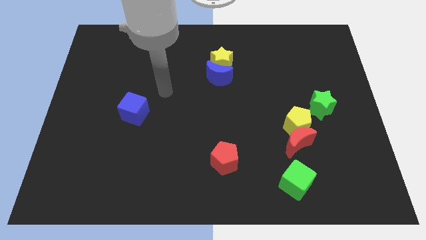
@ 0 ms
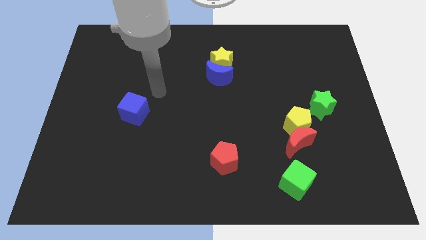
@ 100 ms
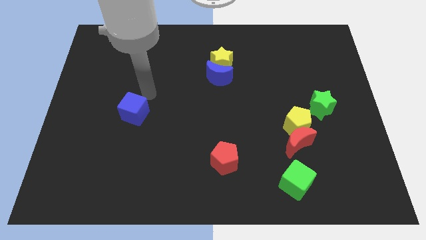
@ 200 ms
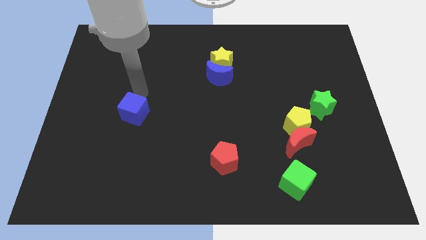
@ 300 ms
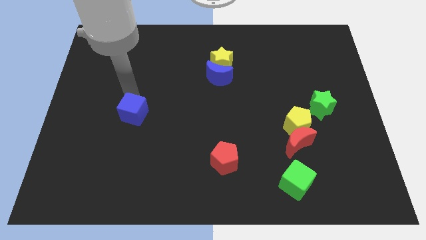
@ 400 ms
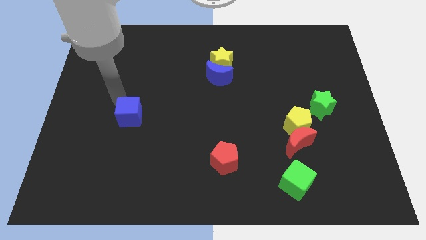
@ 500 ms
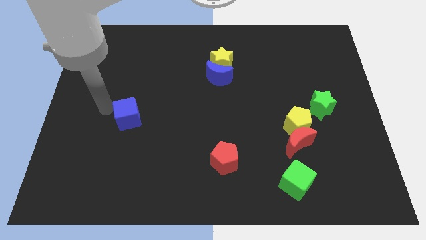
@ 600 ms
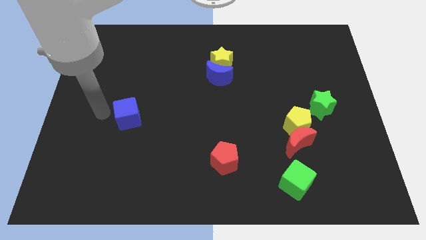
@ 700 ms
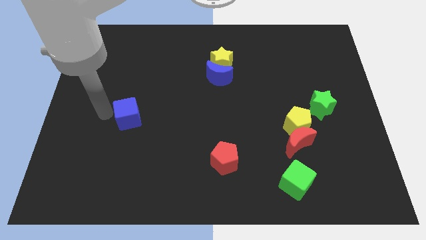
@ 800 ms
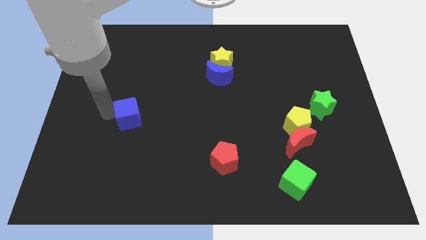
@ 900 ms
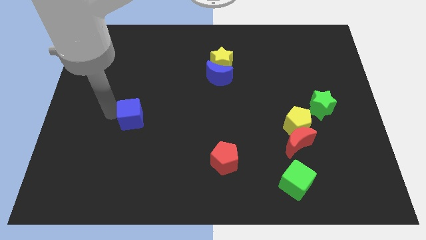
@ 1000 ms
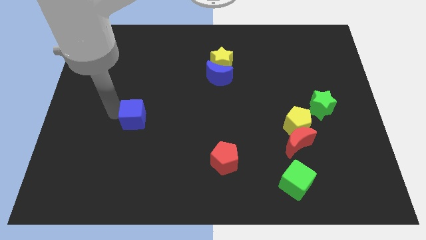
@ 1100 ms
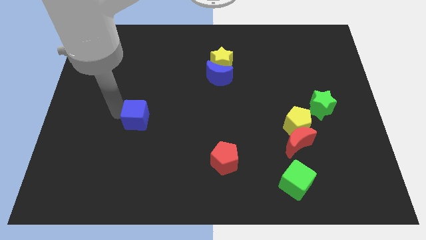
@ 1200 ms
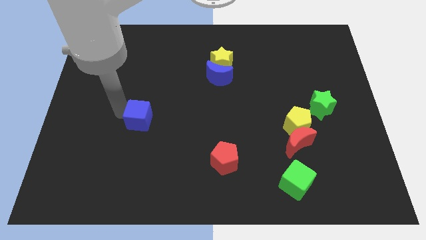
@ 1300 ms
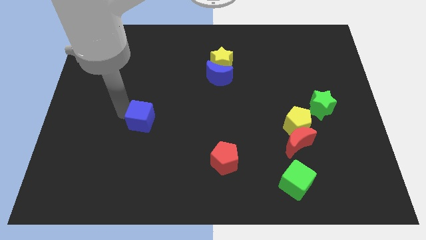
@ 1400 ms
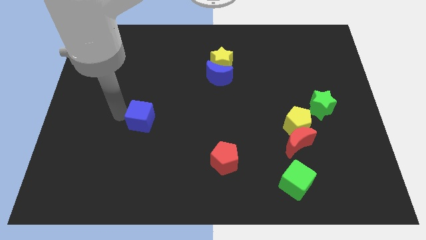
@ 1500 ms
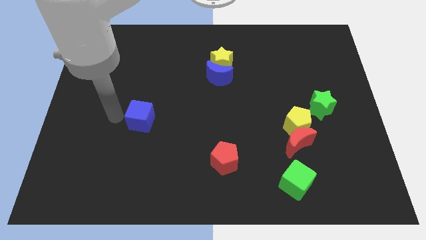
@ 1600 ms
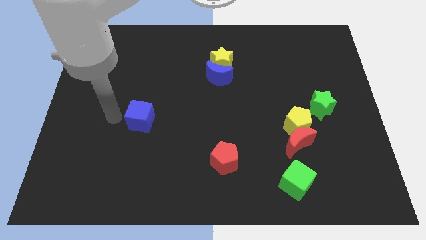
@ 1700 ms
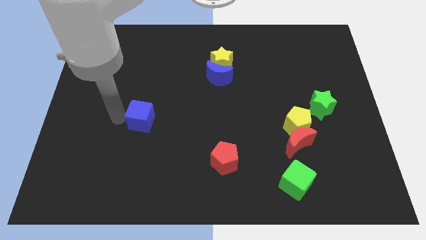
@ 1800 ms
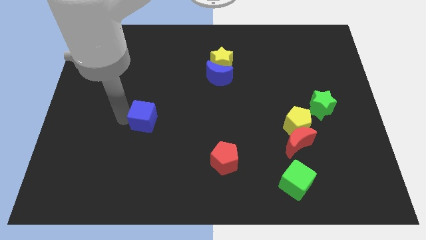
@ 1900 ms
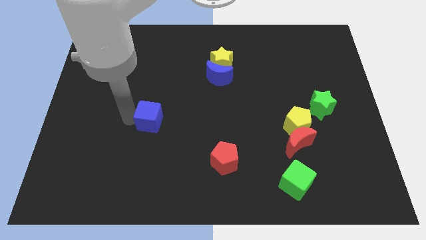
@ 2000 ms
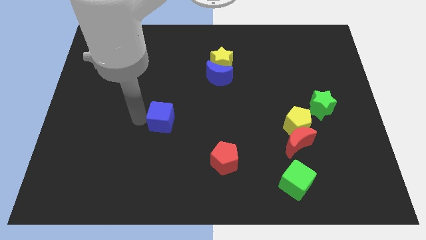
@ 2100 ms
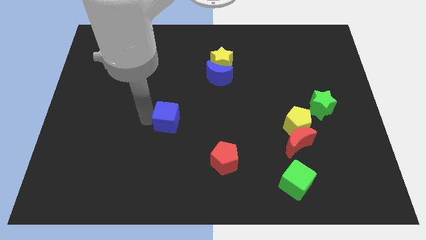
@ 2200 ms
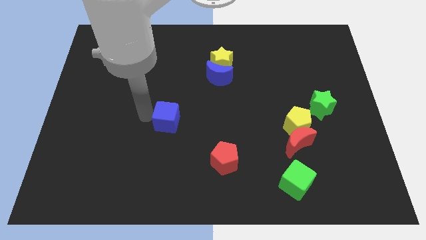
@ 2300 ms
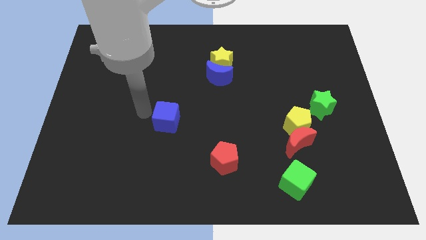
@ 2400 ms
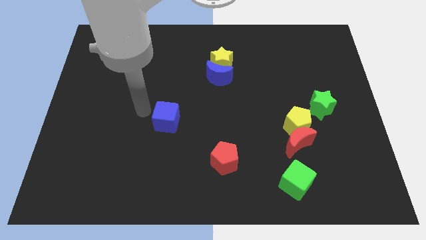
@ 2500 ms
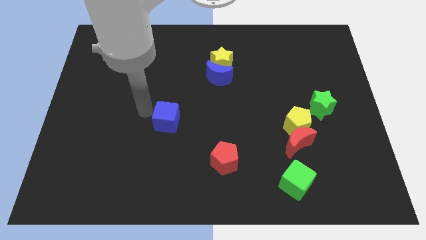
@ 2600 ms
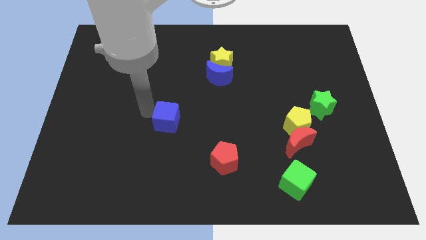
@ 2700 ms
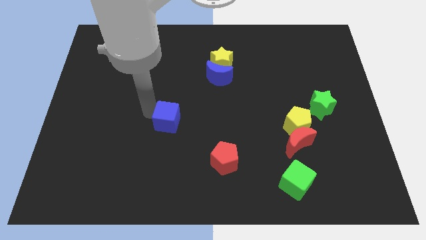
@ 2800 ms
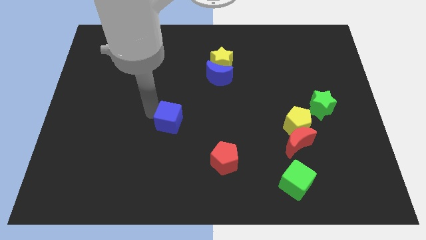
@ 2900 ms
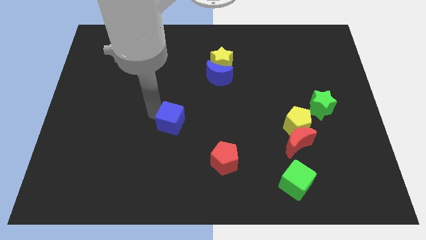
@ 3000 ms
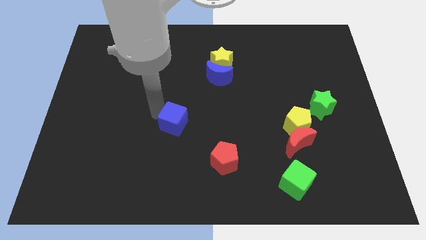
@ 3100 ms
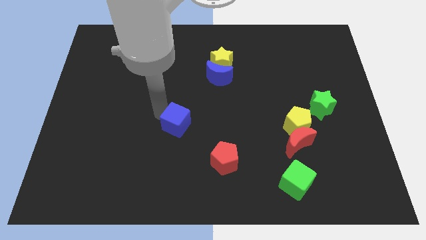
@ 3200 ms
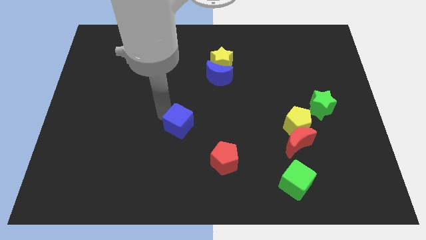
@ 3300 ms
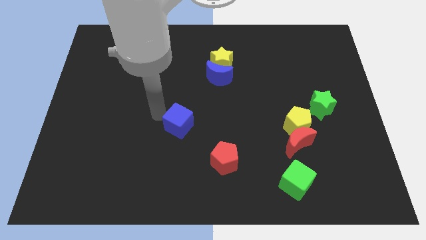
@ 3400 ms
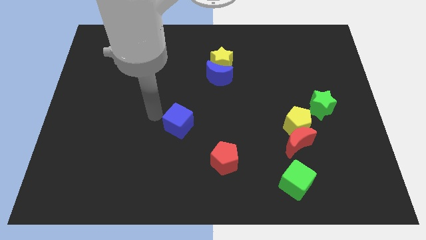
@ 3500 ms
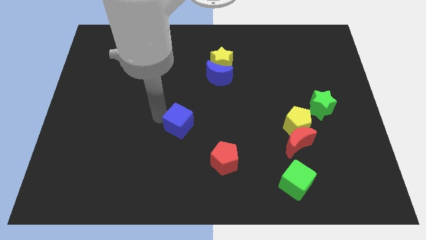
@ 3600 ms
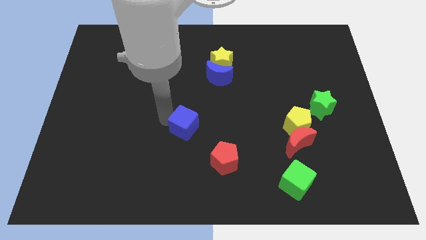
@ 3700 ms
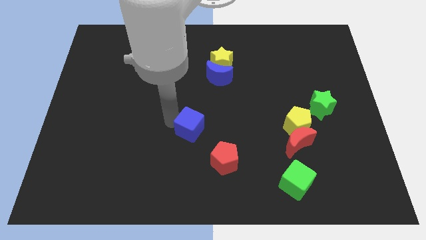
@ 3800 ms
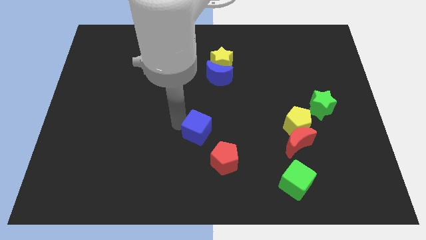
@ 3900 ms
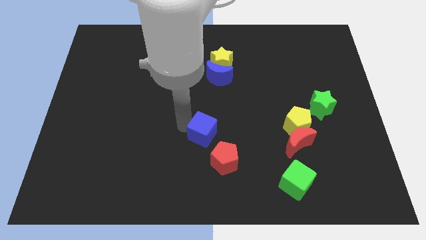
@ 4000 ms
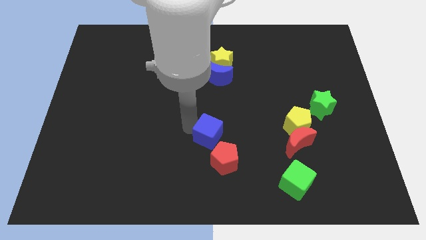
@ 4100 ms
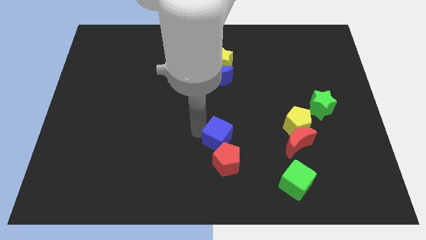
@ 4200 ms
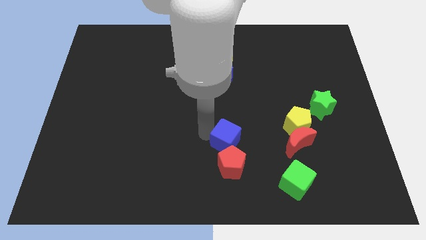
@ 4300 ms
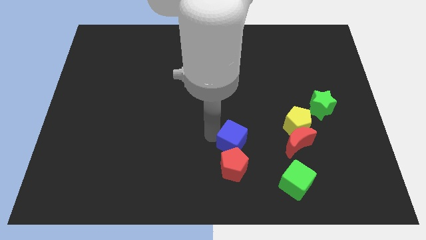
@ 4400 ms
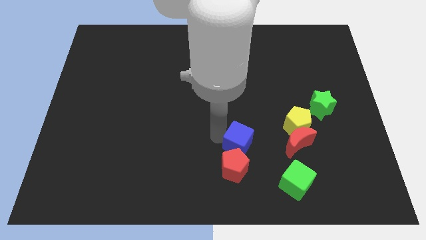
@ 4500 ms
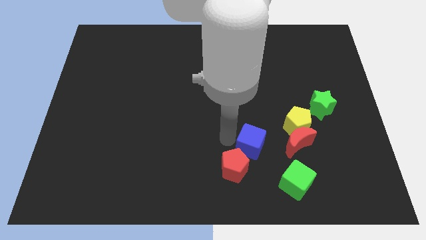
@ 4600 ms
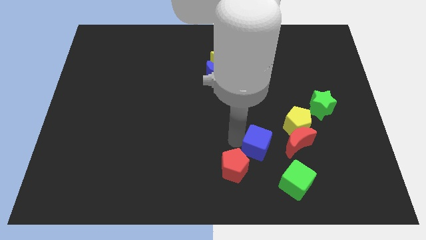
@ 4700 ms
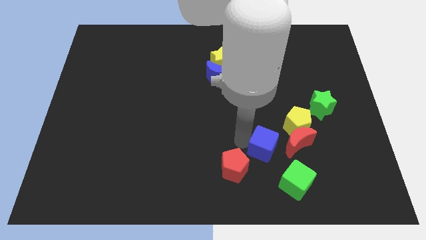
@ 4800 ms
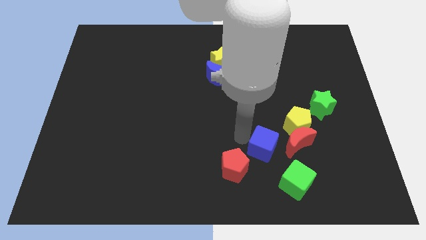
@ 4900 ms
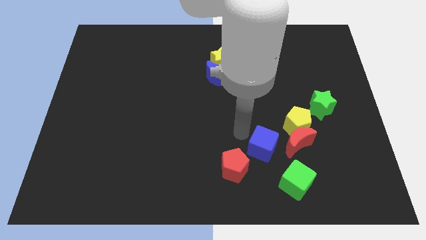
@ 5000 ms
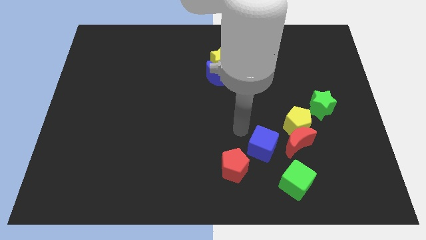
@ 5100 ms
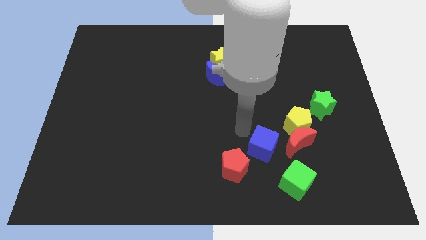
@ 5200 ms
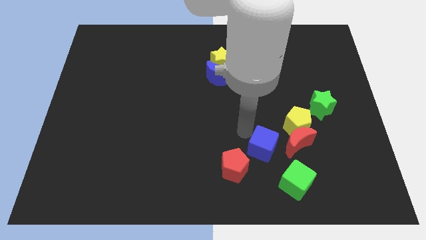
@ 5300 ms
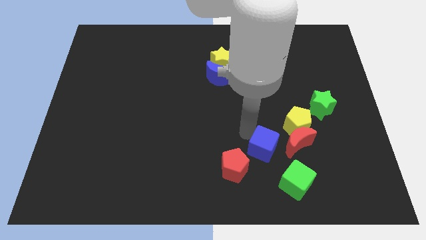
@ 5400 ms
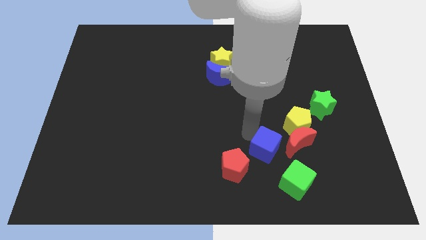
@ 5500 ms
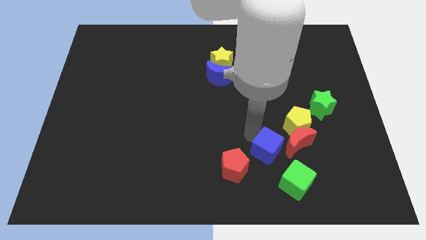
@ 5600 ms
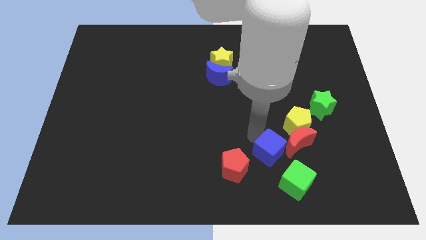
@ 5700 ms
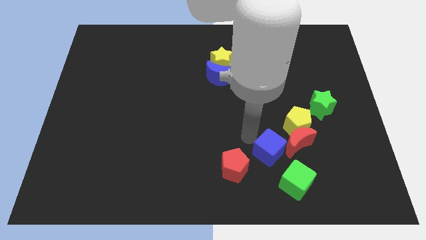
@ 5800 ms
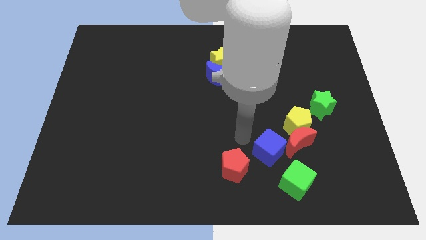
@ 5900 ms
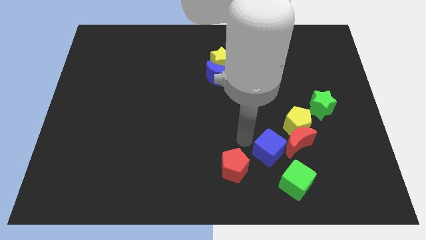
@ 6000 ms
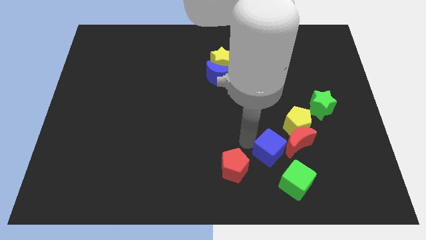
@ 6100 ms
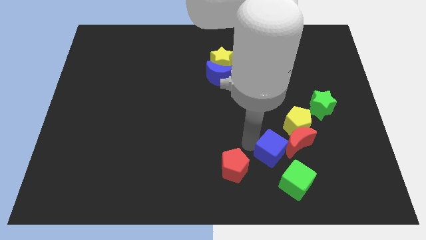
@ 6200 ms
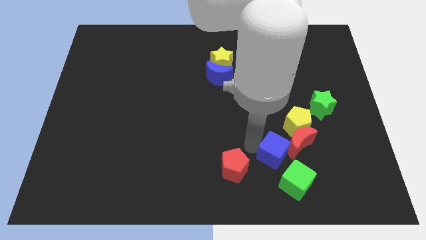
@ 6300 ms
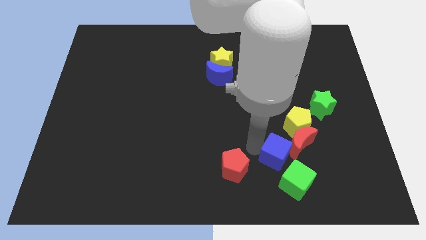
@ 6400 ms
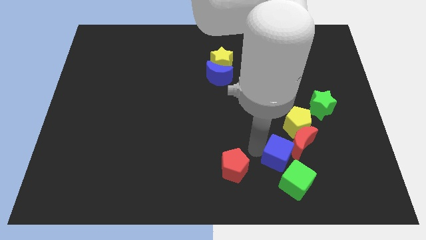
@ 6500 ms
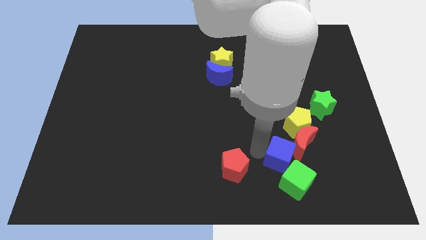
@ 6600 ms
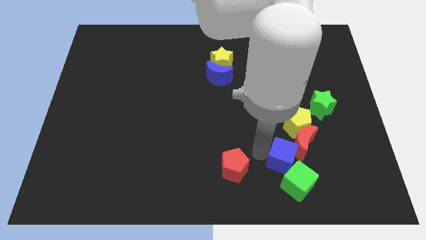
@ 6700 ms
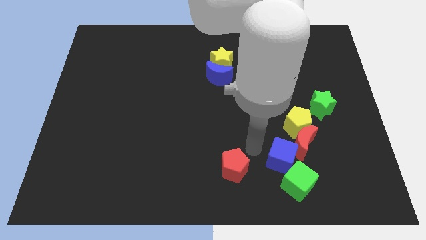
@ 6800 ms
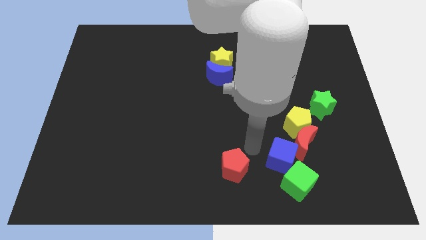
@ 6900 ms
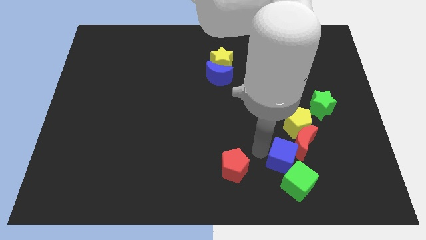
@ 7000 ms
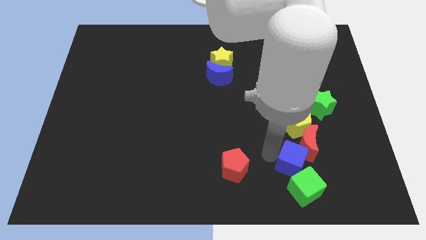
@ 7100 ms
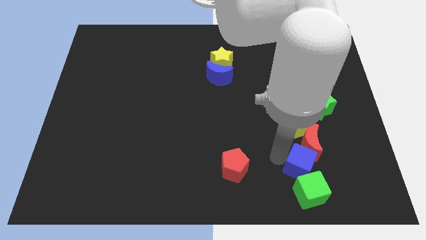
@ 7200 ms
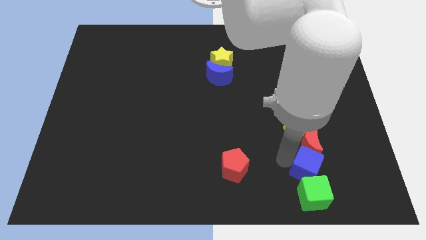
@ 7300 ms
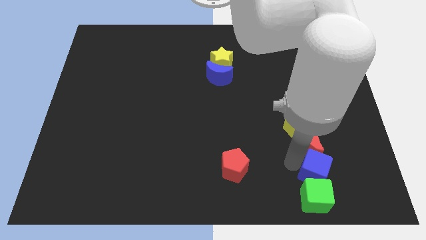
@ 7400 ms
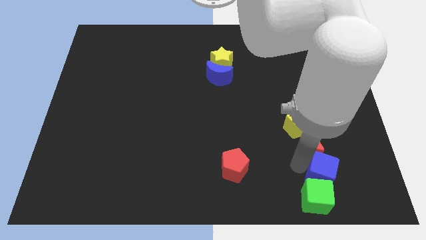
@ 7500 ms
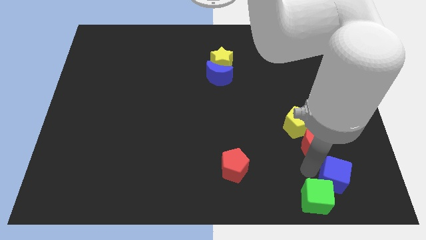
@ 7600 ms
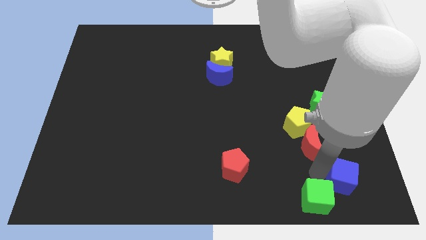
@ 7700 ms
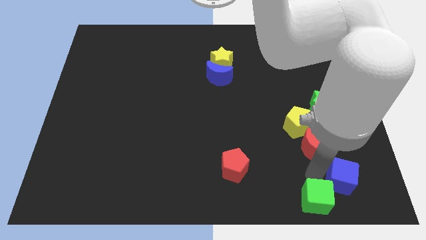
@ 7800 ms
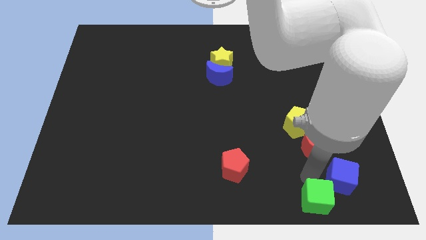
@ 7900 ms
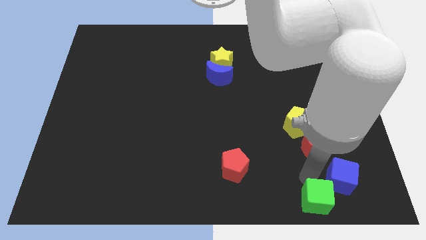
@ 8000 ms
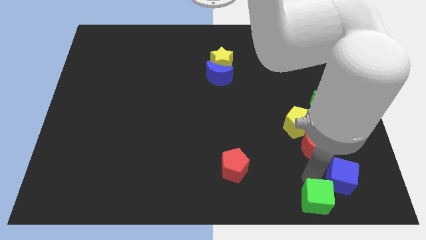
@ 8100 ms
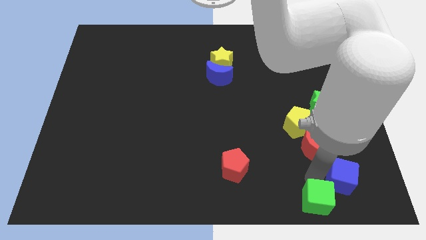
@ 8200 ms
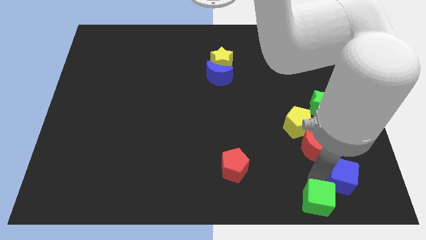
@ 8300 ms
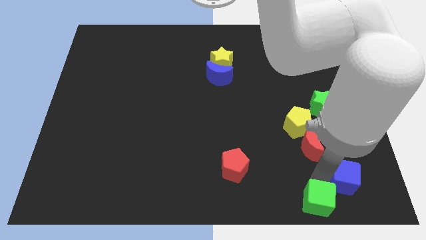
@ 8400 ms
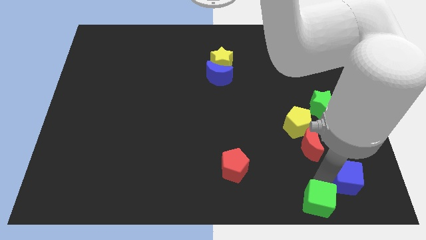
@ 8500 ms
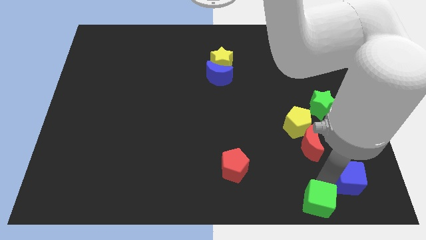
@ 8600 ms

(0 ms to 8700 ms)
slide the blue cube to the lower right corner
